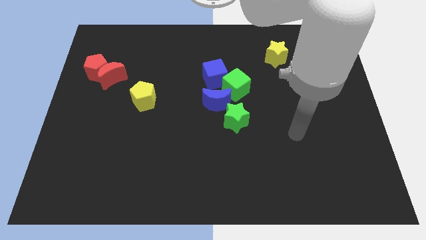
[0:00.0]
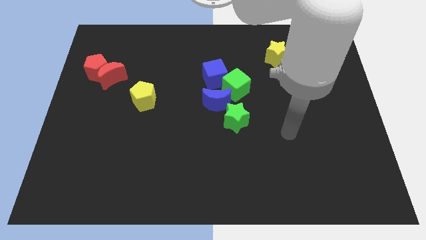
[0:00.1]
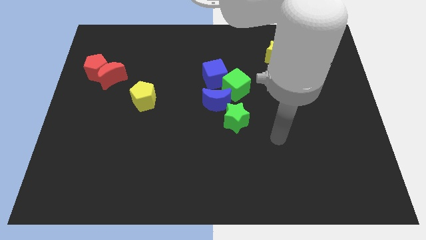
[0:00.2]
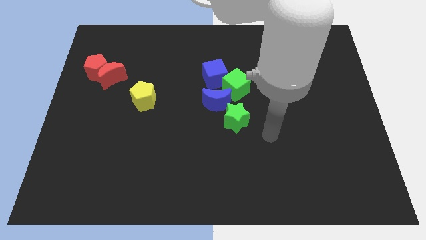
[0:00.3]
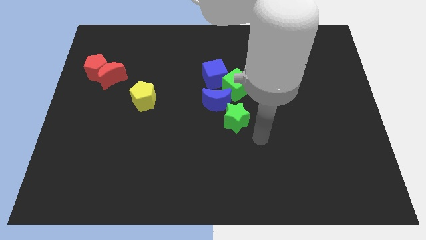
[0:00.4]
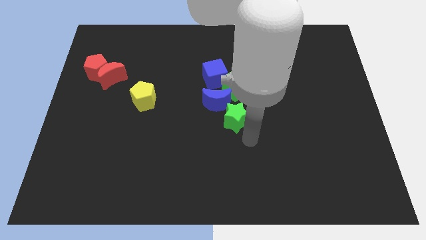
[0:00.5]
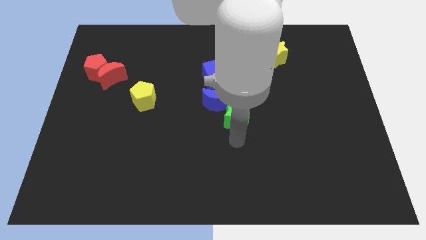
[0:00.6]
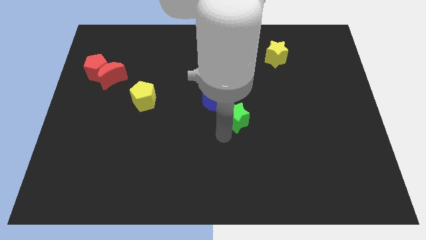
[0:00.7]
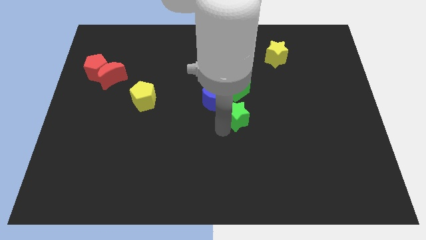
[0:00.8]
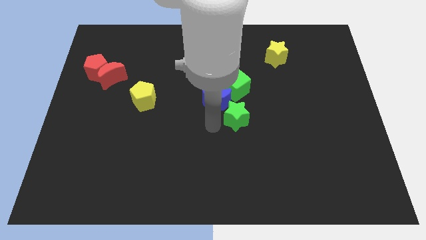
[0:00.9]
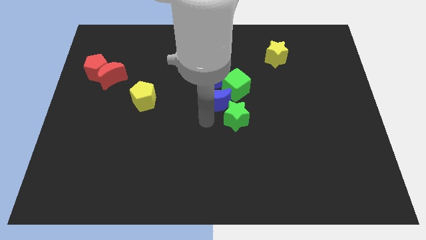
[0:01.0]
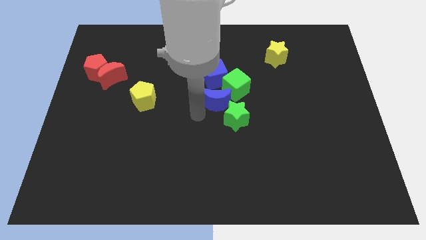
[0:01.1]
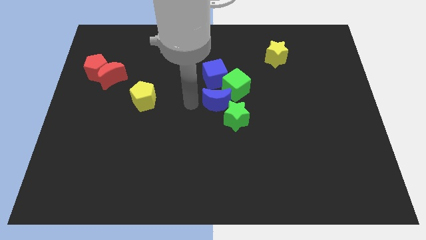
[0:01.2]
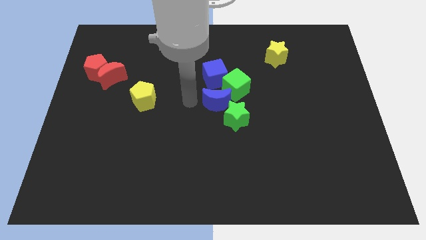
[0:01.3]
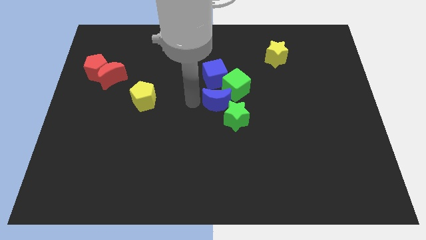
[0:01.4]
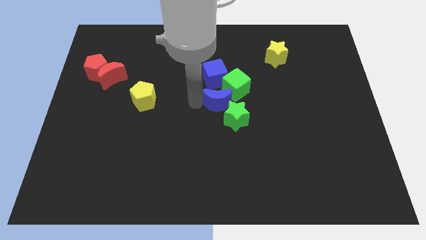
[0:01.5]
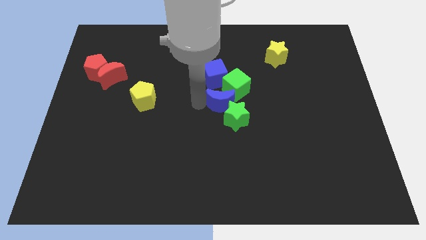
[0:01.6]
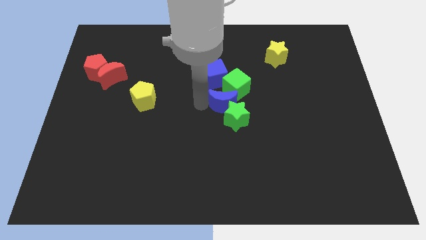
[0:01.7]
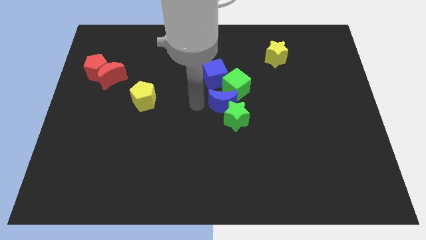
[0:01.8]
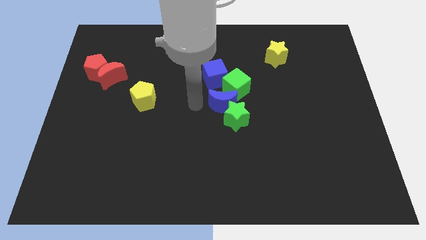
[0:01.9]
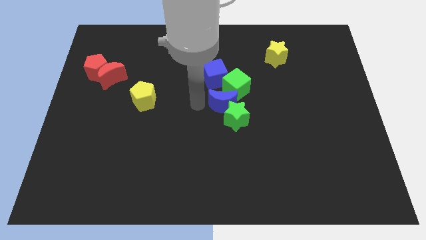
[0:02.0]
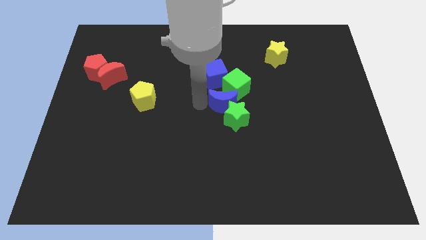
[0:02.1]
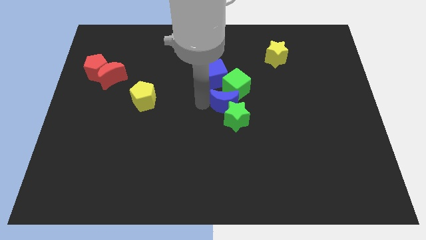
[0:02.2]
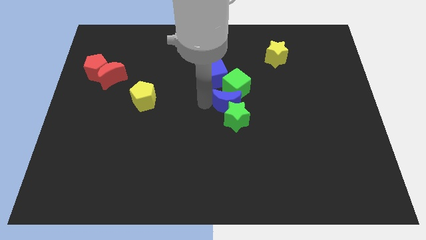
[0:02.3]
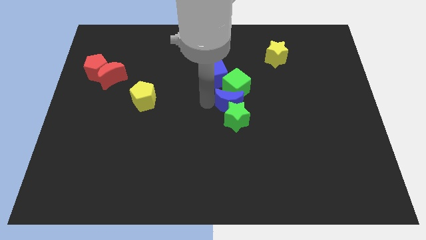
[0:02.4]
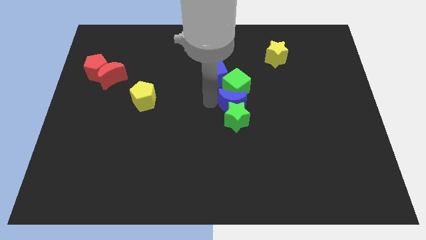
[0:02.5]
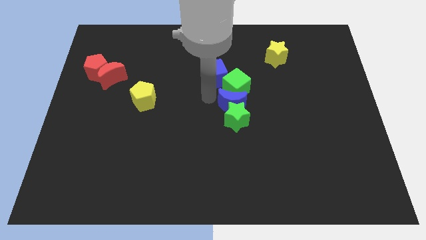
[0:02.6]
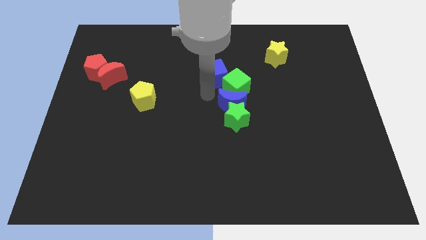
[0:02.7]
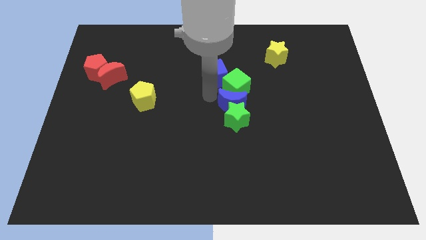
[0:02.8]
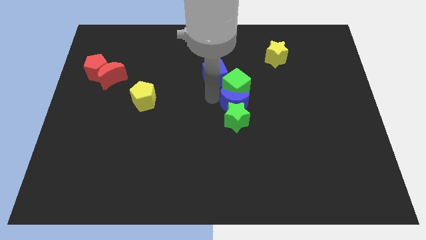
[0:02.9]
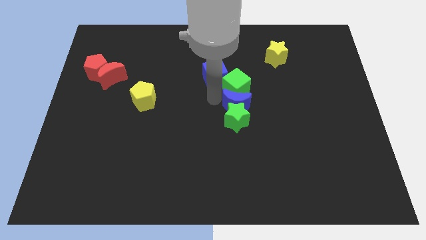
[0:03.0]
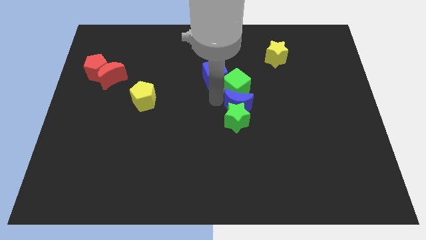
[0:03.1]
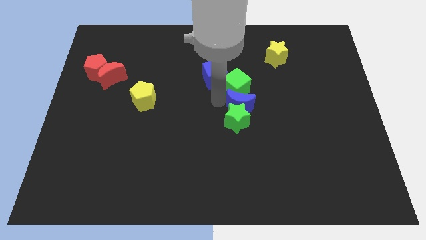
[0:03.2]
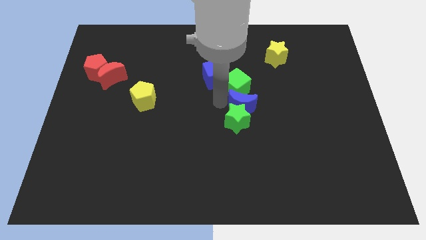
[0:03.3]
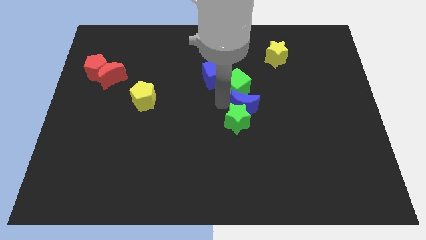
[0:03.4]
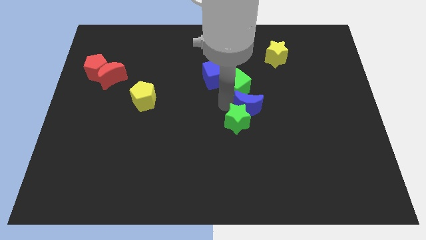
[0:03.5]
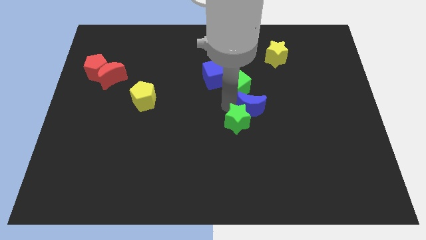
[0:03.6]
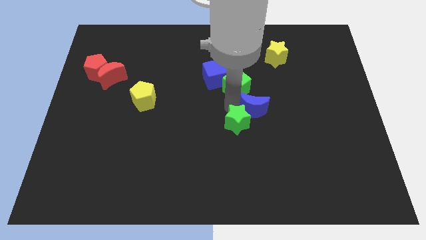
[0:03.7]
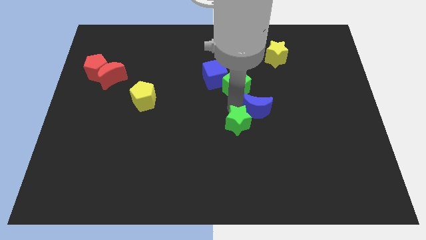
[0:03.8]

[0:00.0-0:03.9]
push the blue moon down and then to the right somewhat

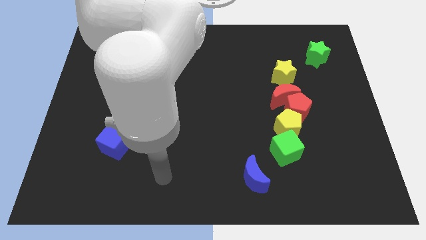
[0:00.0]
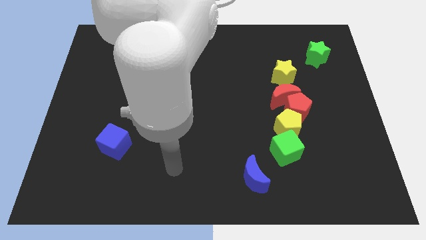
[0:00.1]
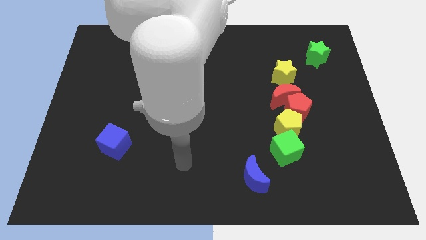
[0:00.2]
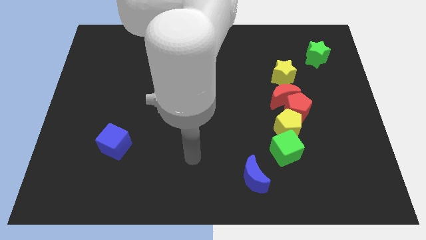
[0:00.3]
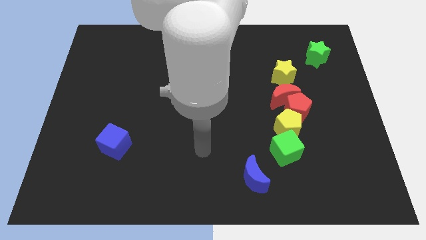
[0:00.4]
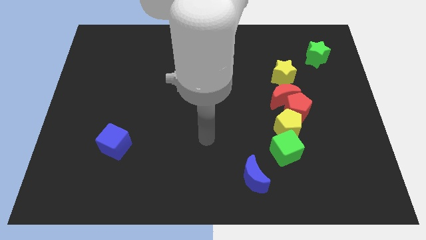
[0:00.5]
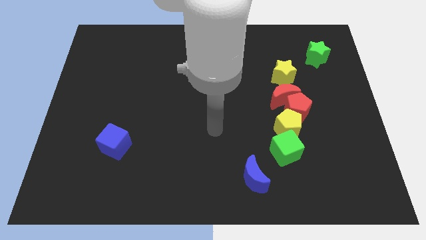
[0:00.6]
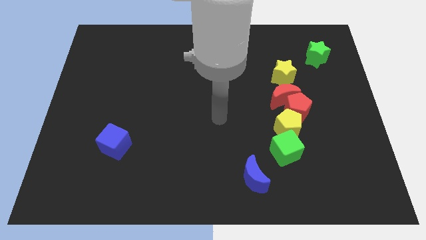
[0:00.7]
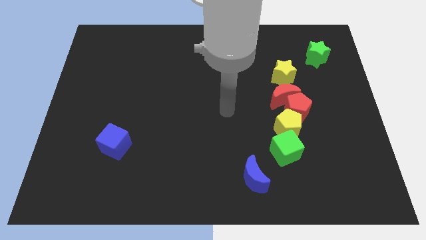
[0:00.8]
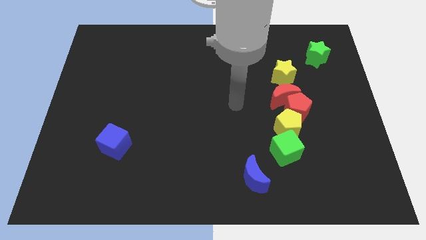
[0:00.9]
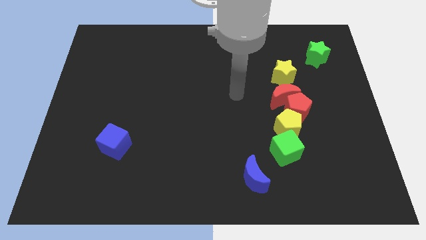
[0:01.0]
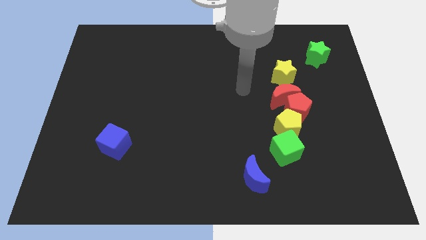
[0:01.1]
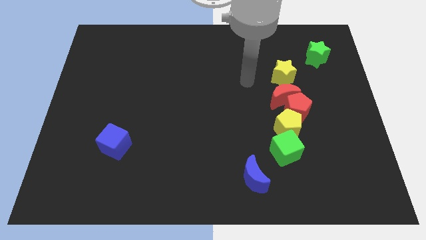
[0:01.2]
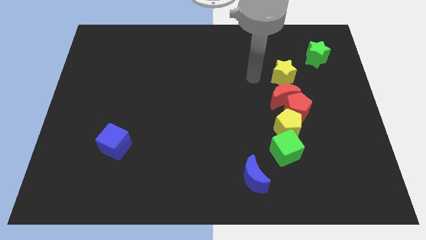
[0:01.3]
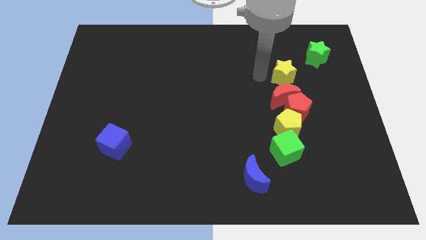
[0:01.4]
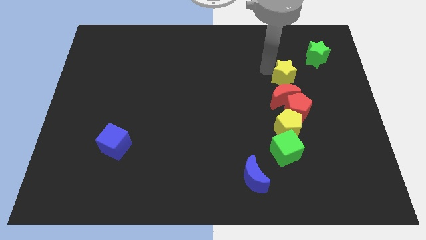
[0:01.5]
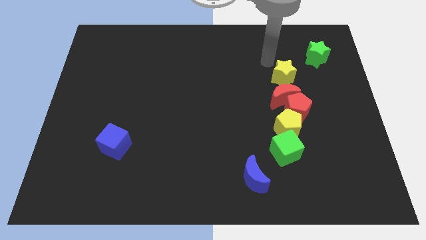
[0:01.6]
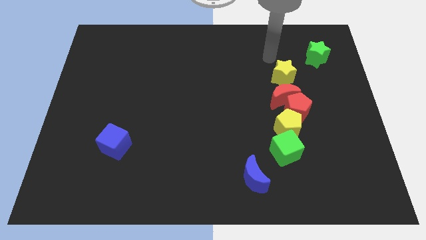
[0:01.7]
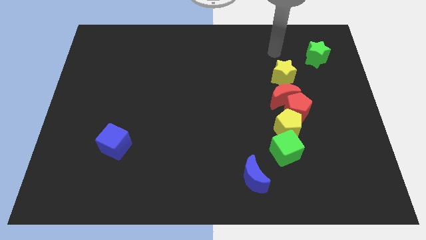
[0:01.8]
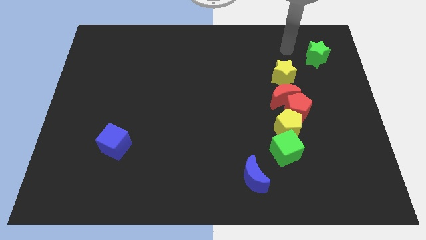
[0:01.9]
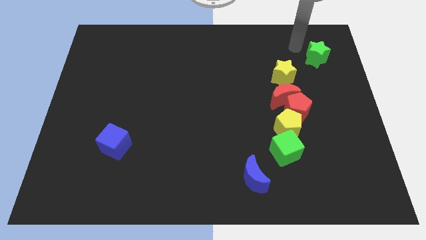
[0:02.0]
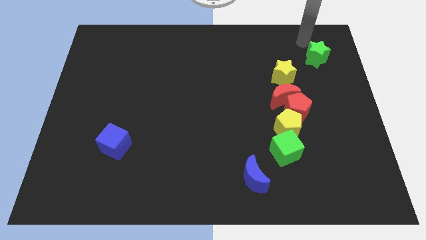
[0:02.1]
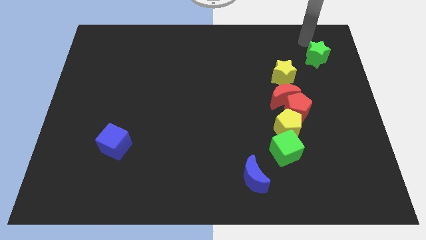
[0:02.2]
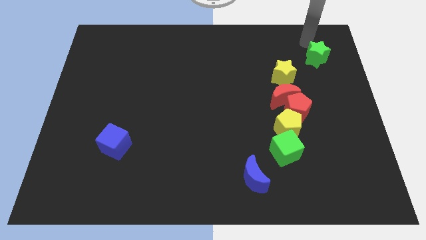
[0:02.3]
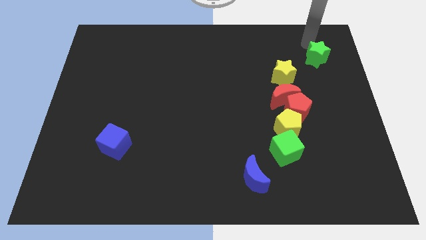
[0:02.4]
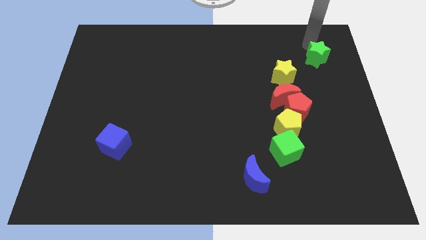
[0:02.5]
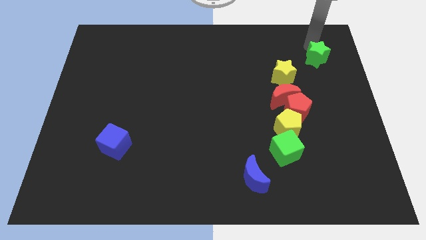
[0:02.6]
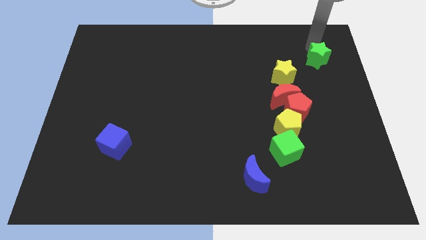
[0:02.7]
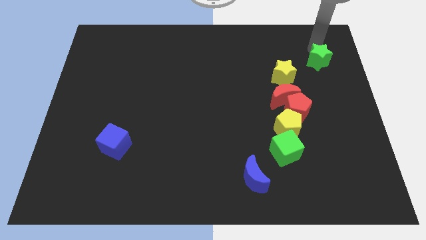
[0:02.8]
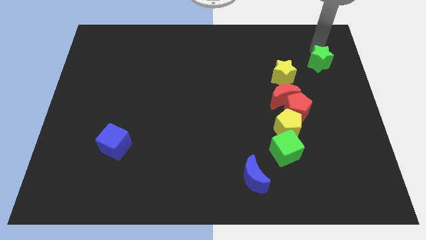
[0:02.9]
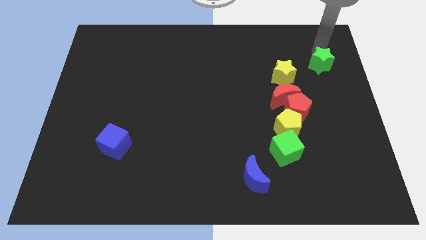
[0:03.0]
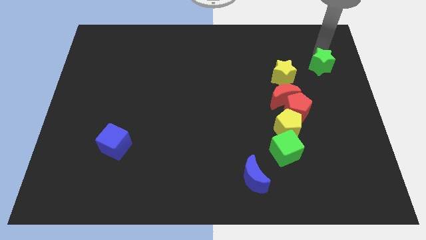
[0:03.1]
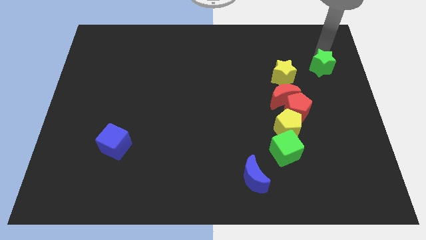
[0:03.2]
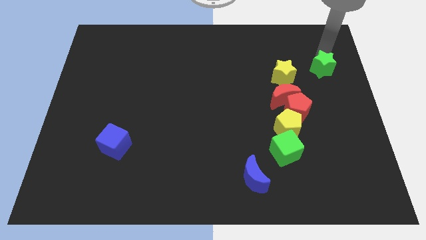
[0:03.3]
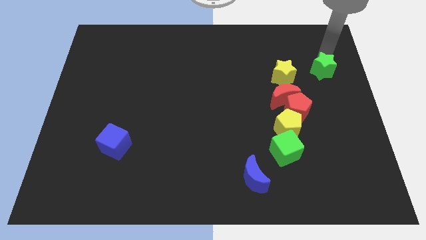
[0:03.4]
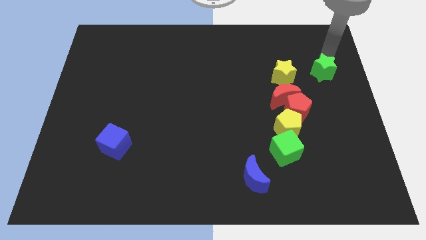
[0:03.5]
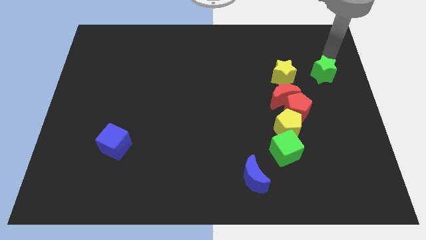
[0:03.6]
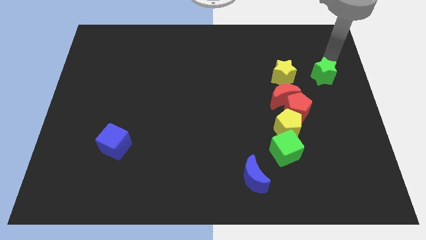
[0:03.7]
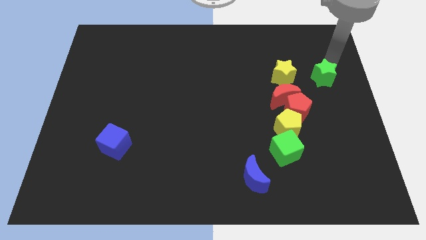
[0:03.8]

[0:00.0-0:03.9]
slightly push the green star downwards

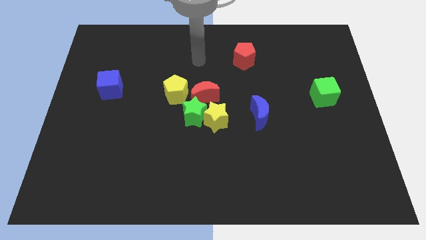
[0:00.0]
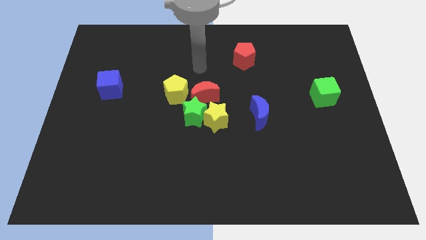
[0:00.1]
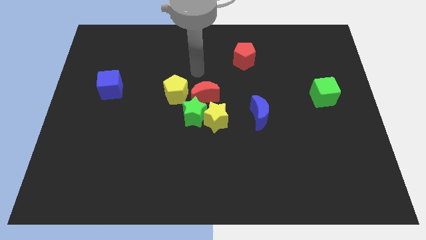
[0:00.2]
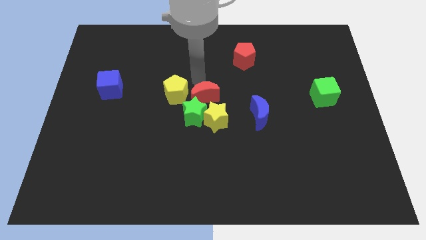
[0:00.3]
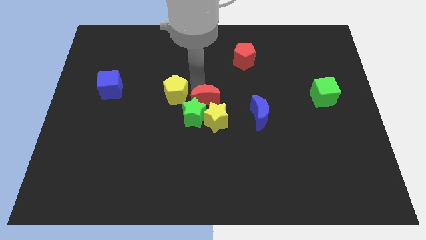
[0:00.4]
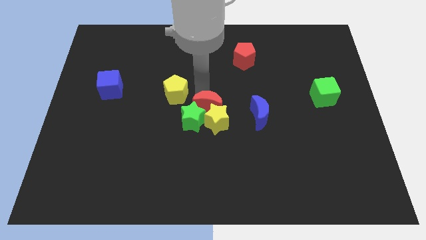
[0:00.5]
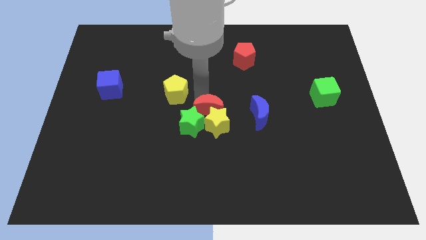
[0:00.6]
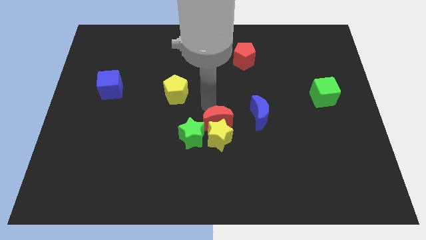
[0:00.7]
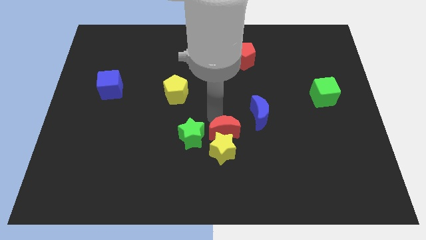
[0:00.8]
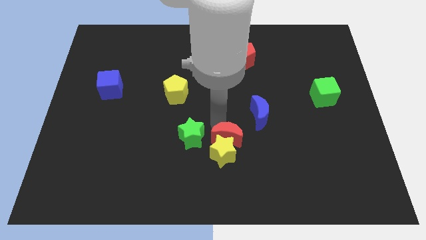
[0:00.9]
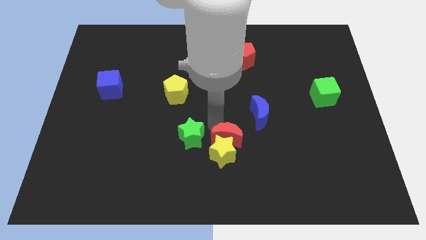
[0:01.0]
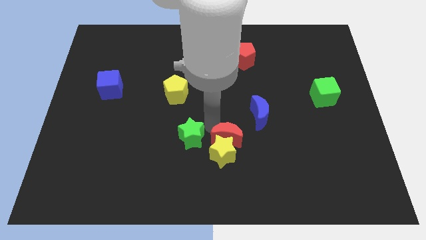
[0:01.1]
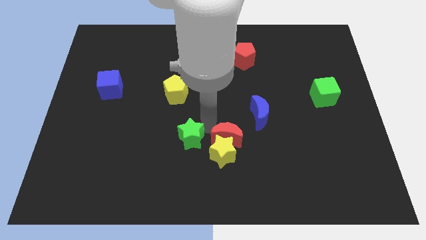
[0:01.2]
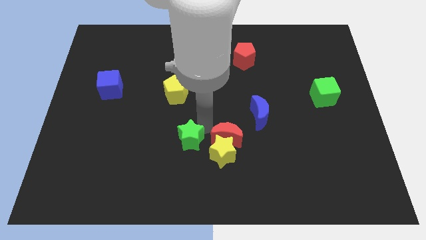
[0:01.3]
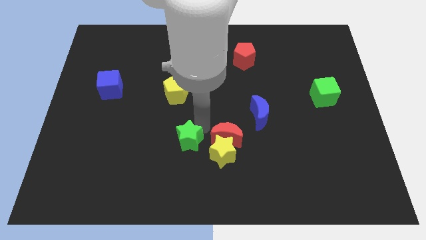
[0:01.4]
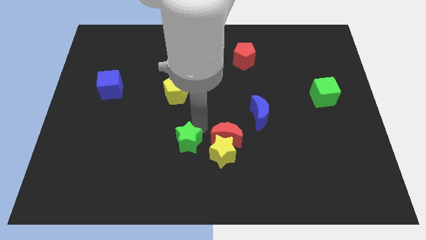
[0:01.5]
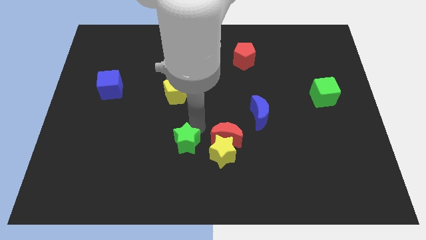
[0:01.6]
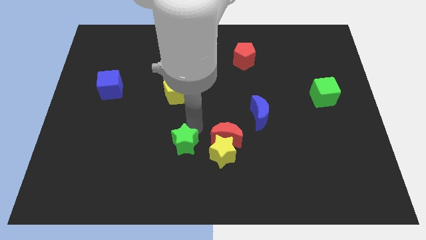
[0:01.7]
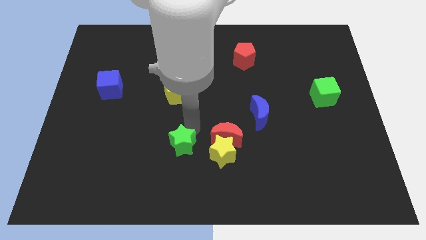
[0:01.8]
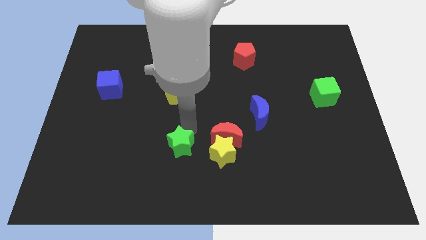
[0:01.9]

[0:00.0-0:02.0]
slightly move the green star diagonally downwards and to the left
